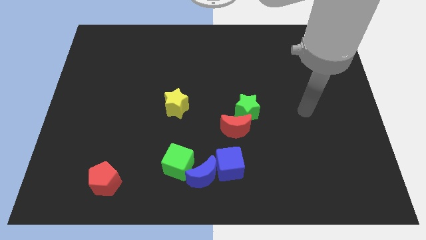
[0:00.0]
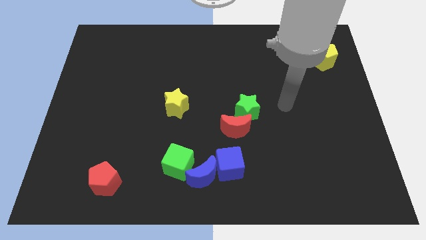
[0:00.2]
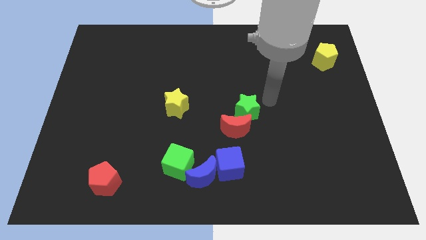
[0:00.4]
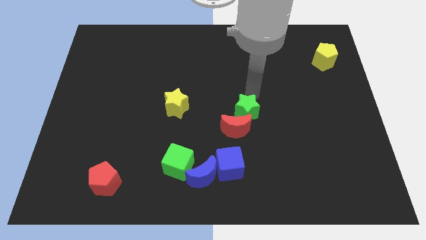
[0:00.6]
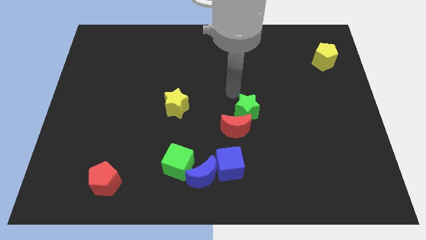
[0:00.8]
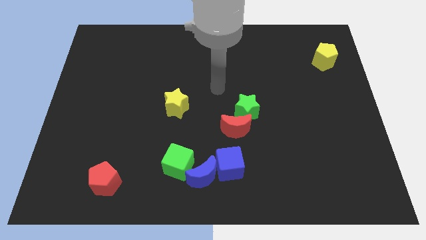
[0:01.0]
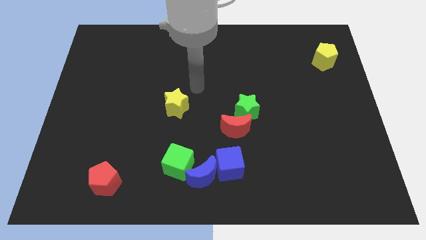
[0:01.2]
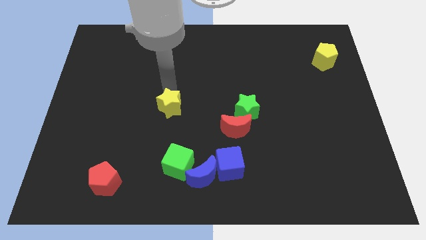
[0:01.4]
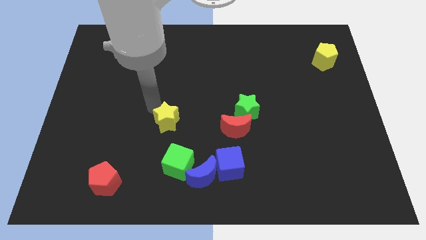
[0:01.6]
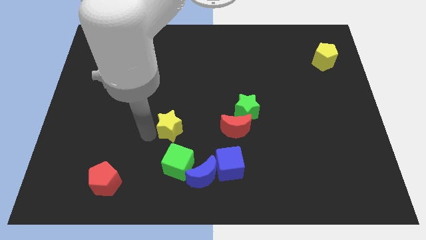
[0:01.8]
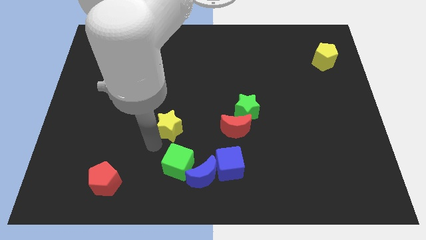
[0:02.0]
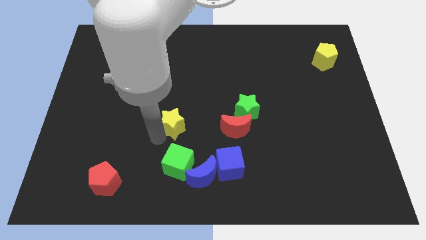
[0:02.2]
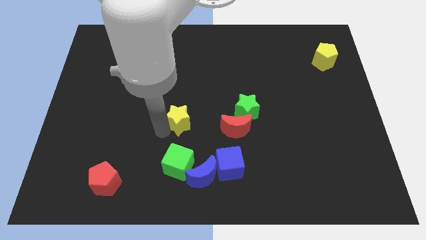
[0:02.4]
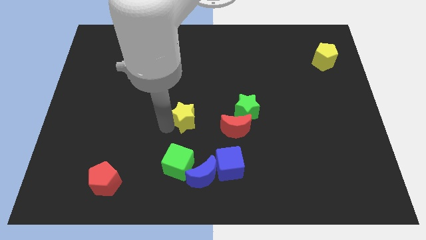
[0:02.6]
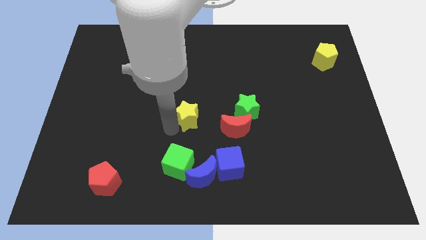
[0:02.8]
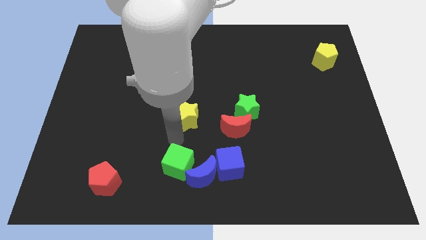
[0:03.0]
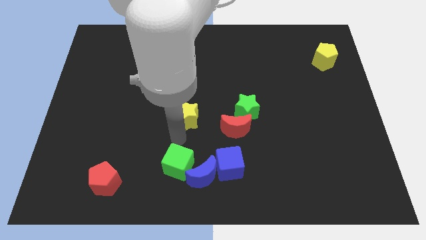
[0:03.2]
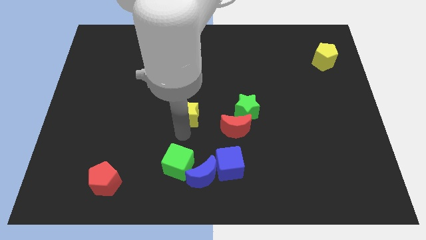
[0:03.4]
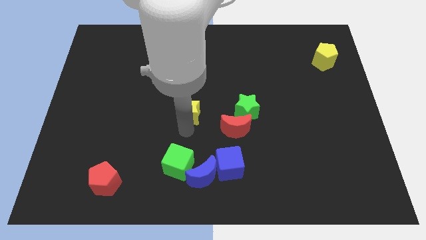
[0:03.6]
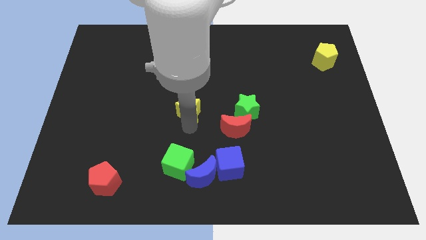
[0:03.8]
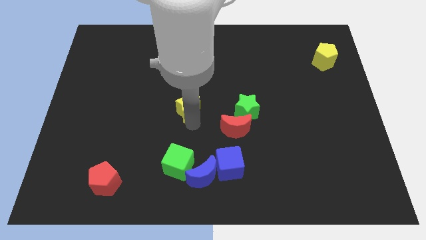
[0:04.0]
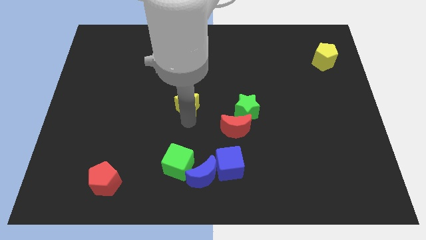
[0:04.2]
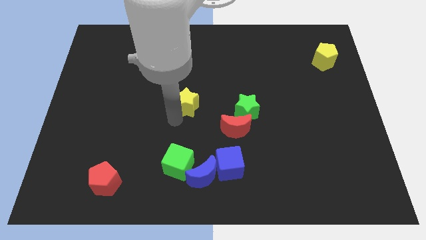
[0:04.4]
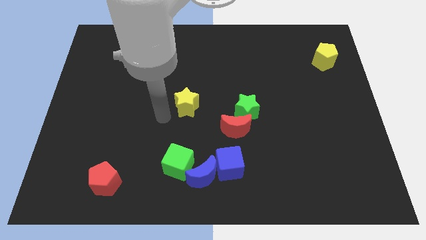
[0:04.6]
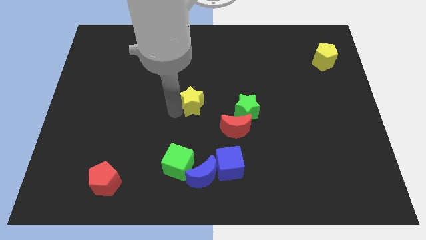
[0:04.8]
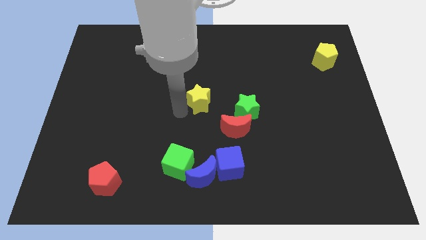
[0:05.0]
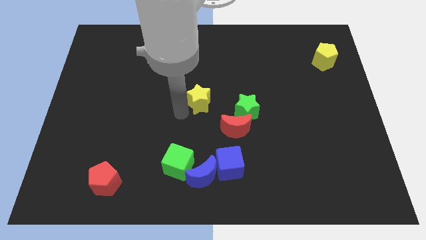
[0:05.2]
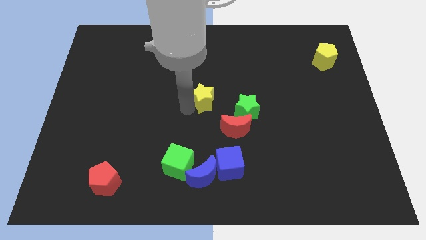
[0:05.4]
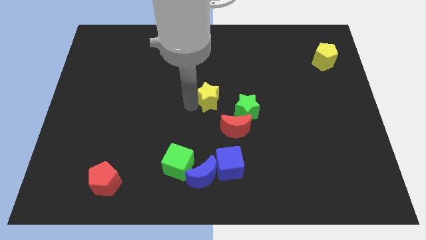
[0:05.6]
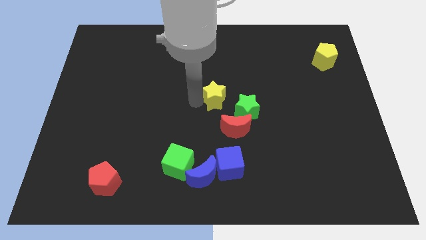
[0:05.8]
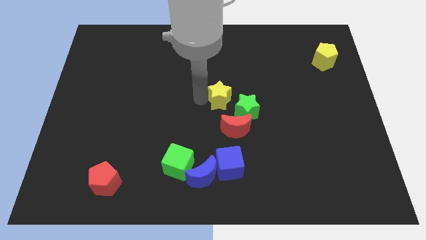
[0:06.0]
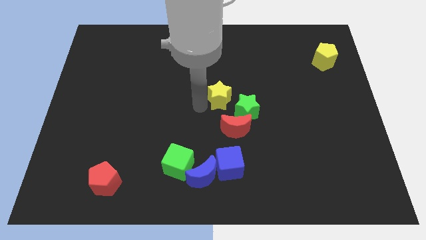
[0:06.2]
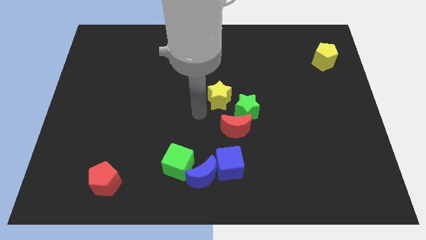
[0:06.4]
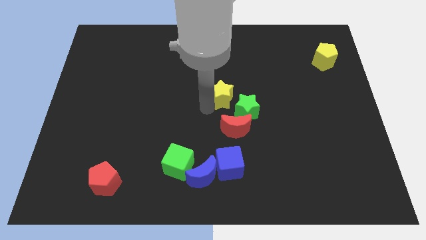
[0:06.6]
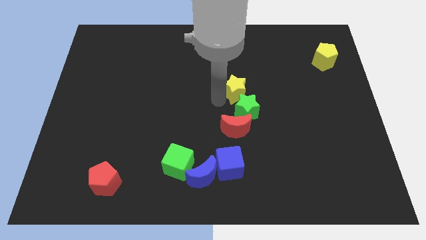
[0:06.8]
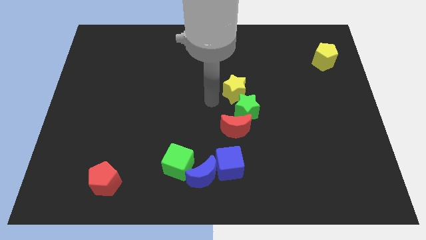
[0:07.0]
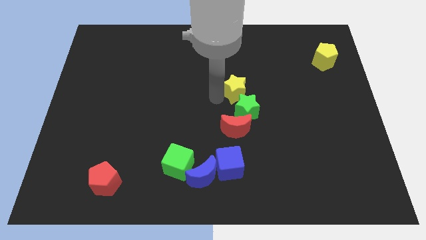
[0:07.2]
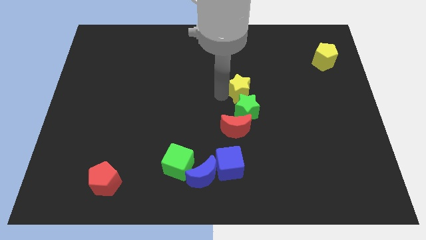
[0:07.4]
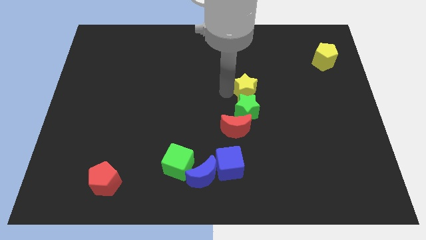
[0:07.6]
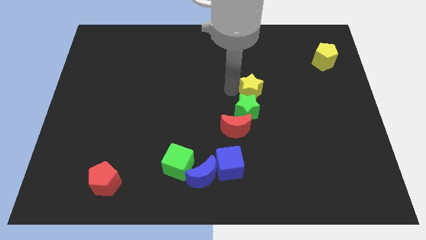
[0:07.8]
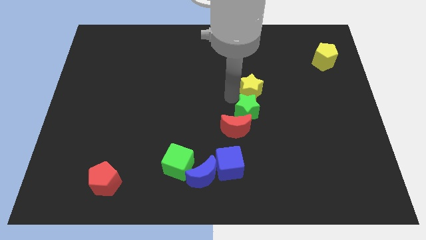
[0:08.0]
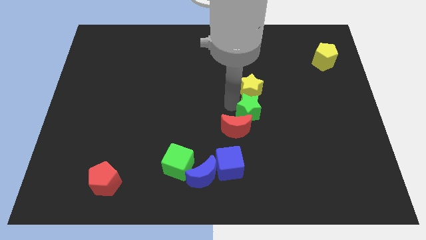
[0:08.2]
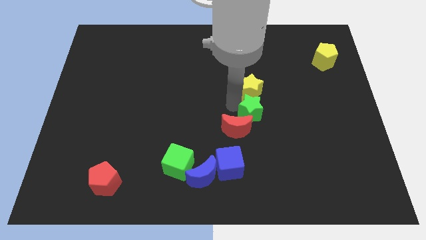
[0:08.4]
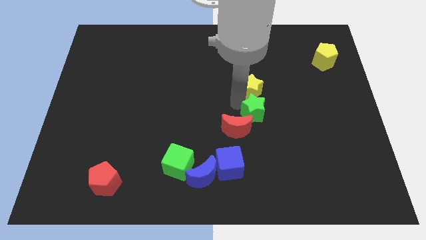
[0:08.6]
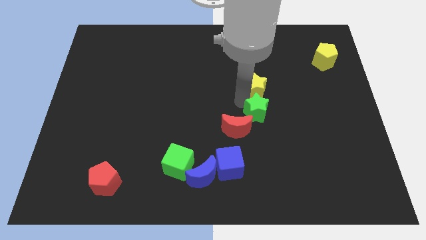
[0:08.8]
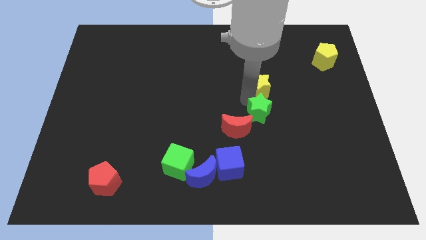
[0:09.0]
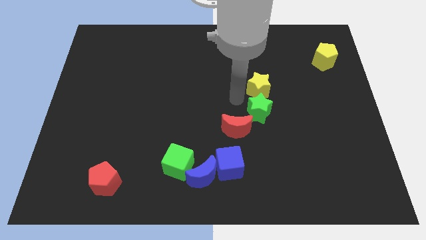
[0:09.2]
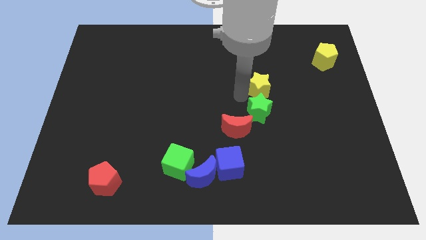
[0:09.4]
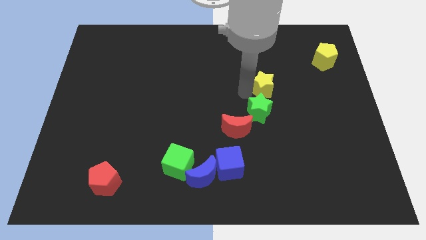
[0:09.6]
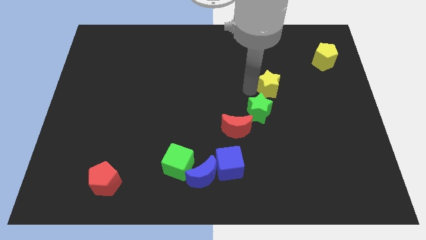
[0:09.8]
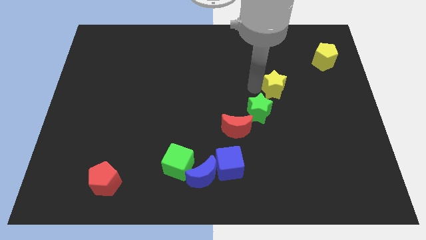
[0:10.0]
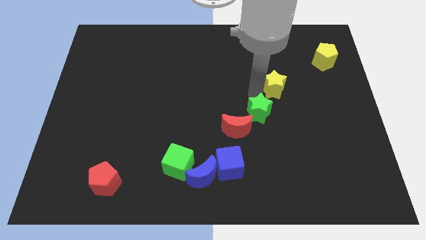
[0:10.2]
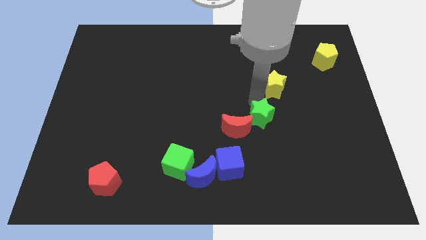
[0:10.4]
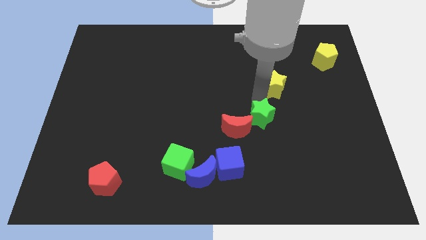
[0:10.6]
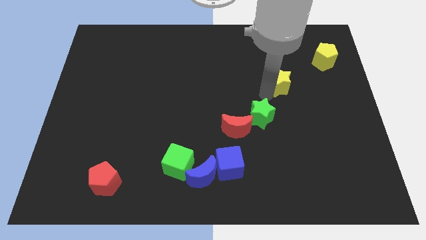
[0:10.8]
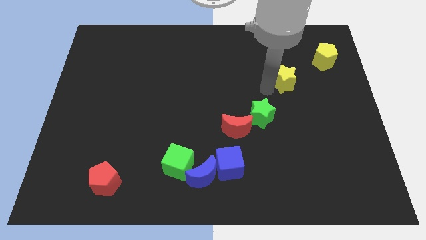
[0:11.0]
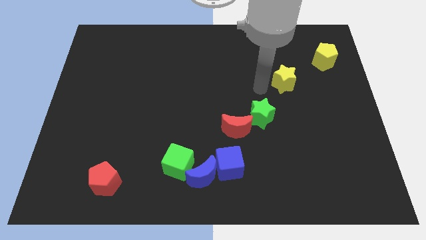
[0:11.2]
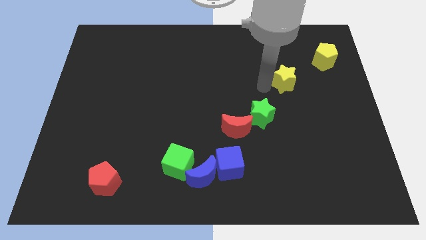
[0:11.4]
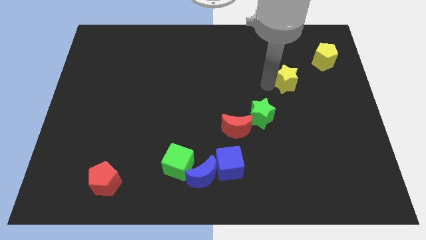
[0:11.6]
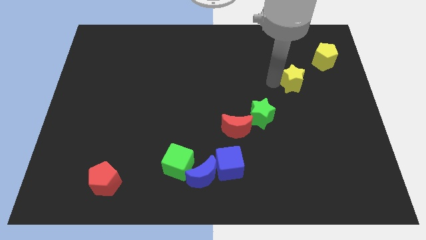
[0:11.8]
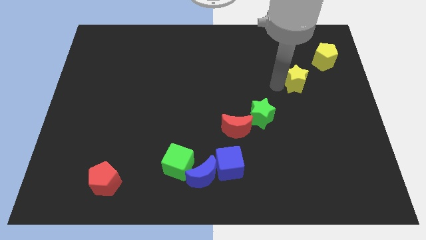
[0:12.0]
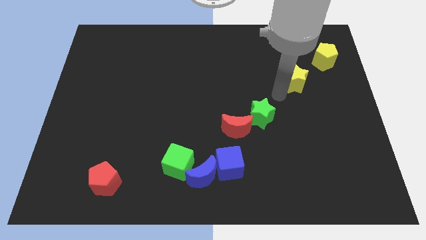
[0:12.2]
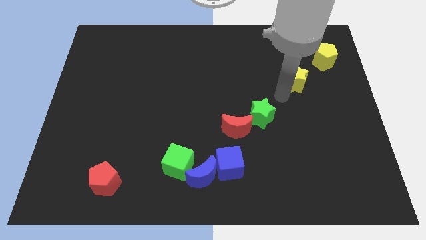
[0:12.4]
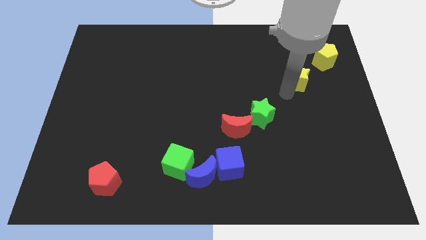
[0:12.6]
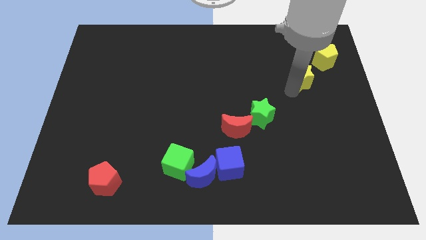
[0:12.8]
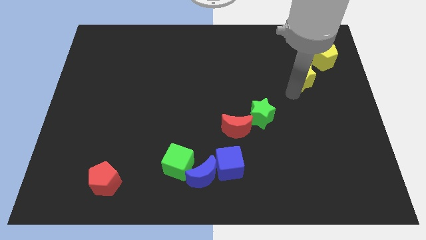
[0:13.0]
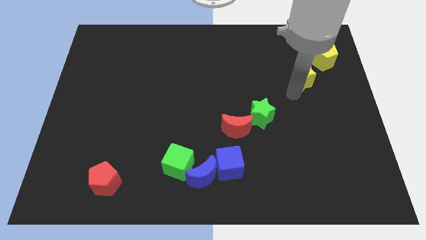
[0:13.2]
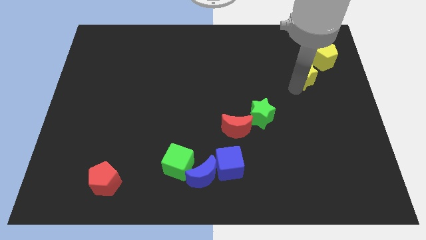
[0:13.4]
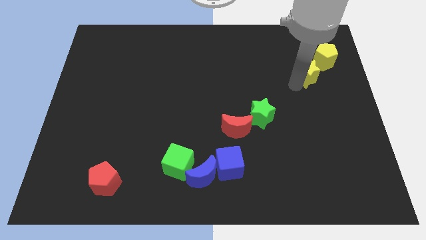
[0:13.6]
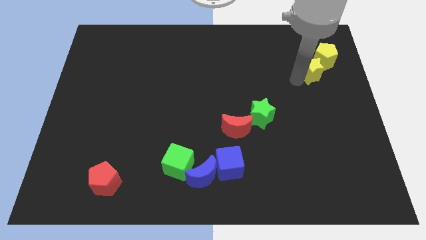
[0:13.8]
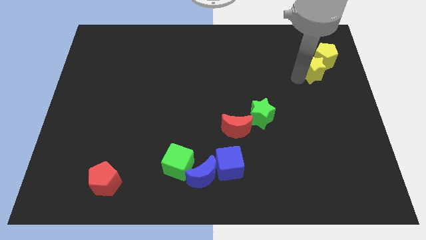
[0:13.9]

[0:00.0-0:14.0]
put the yellow star towards the yellow pentagon

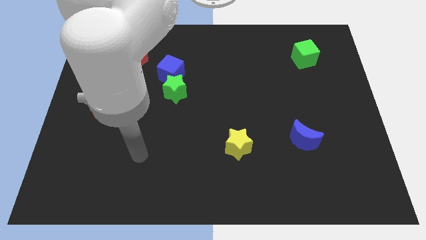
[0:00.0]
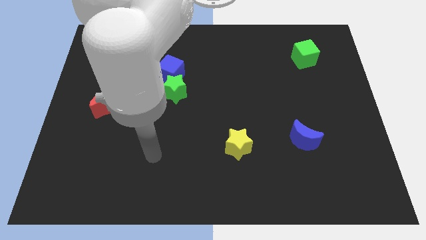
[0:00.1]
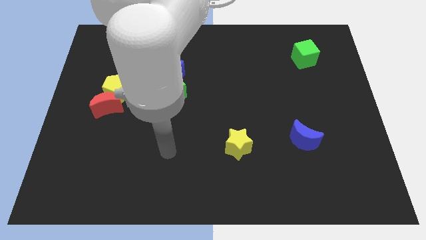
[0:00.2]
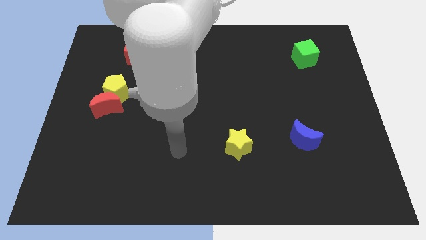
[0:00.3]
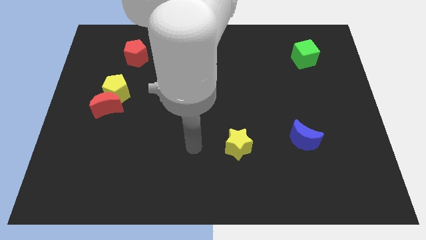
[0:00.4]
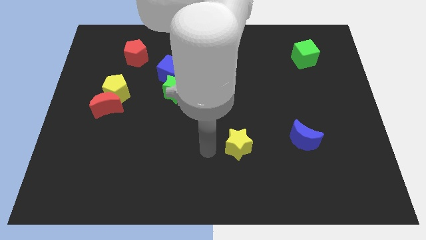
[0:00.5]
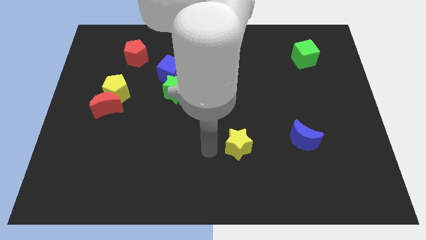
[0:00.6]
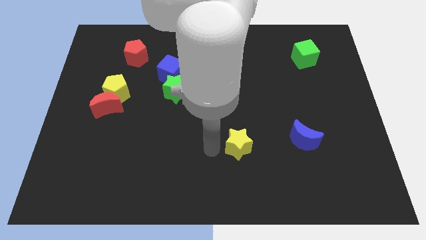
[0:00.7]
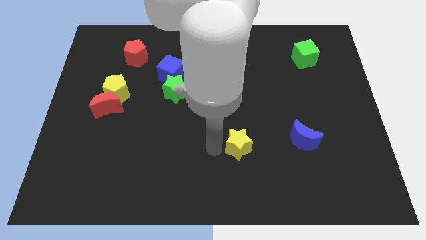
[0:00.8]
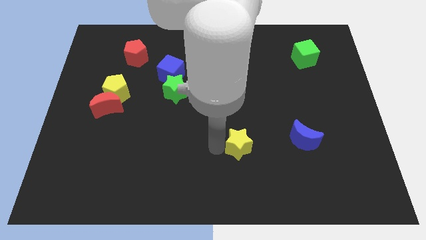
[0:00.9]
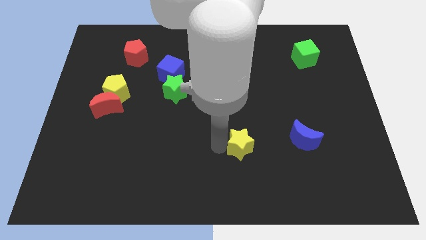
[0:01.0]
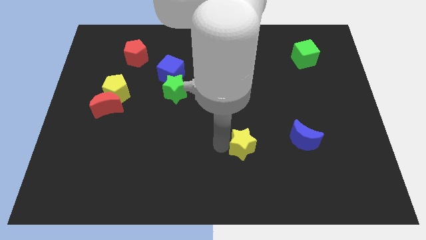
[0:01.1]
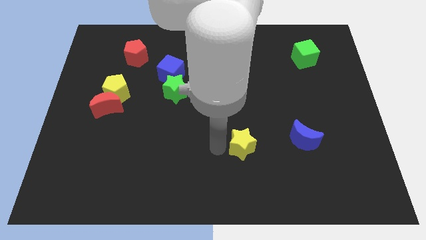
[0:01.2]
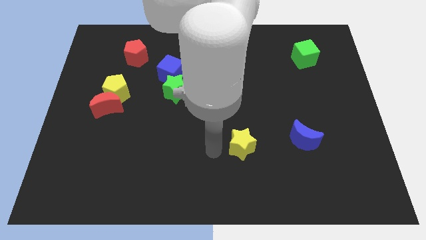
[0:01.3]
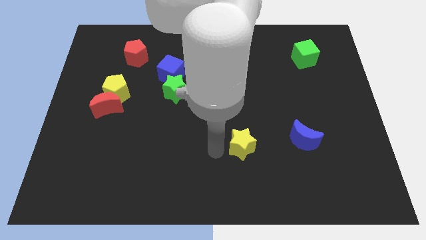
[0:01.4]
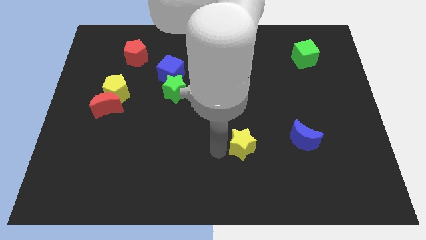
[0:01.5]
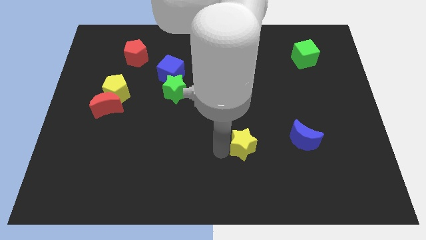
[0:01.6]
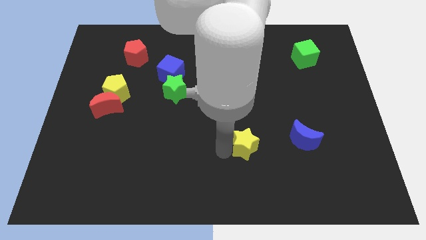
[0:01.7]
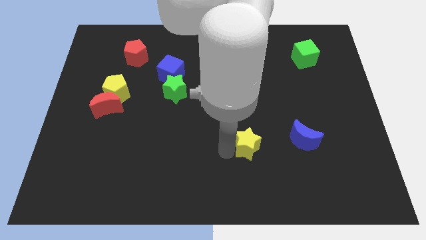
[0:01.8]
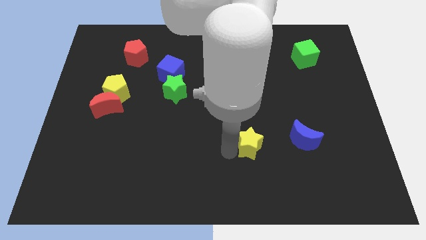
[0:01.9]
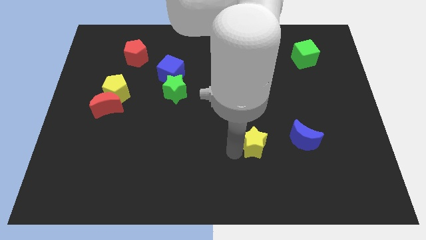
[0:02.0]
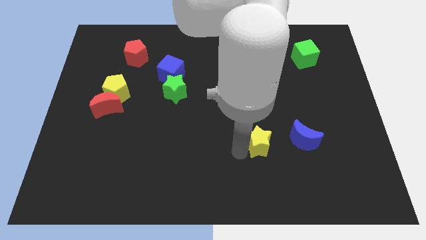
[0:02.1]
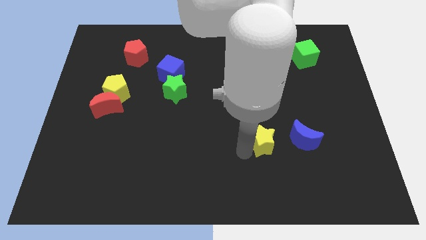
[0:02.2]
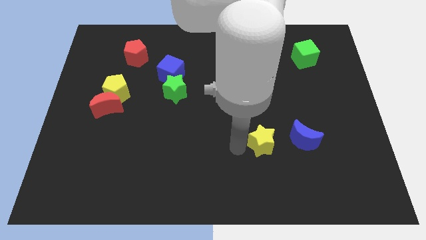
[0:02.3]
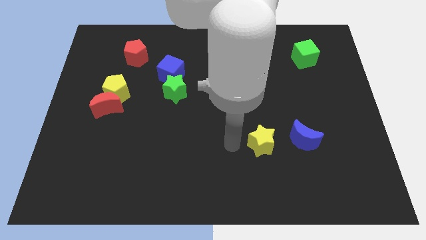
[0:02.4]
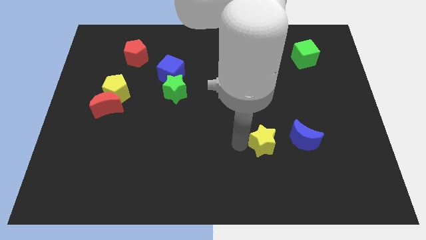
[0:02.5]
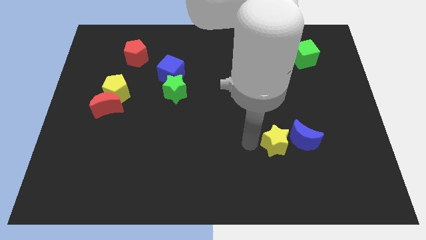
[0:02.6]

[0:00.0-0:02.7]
push the yellow star next to the blue moon
